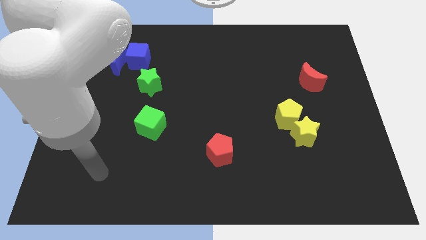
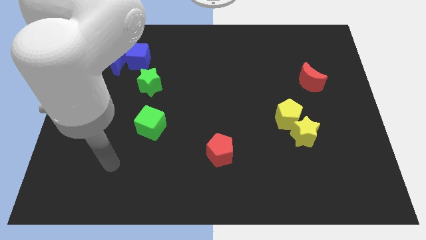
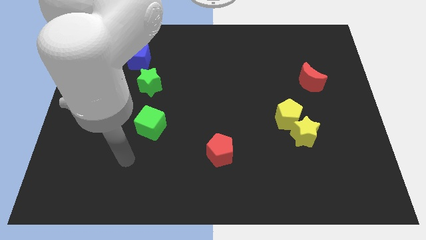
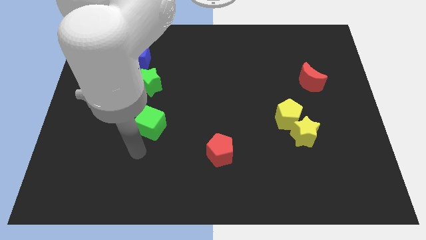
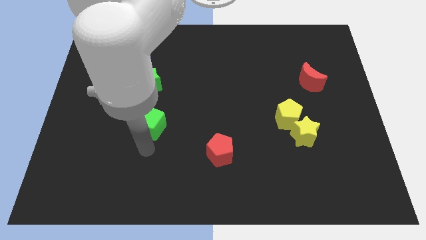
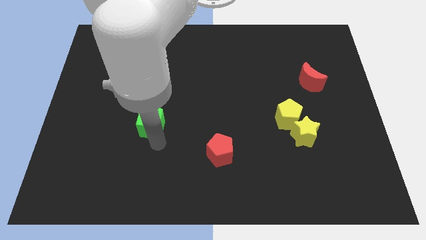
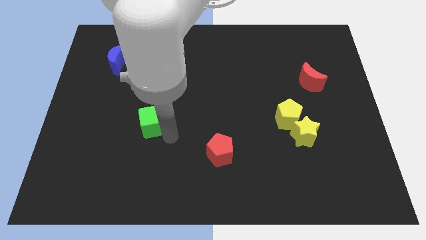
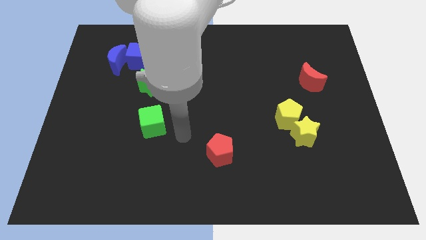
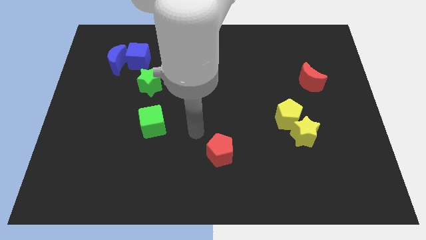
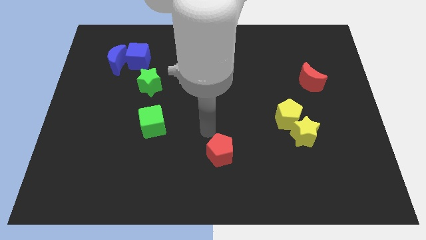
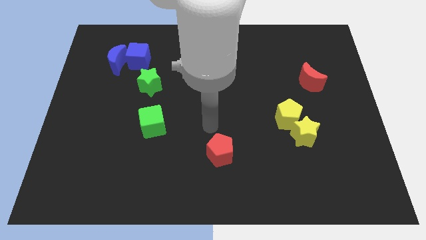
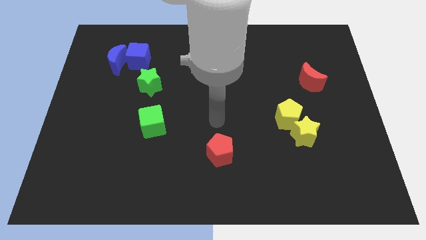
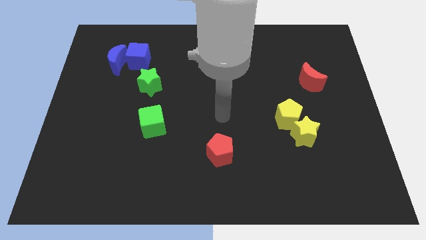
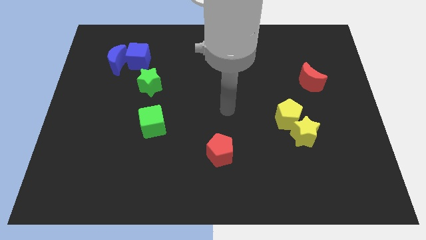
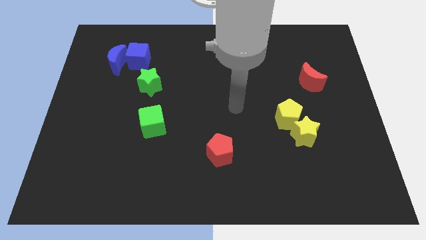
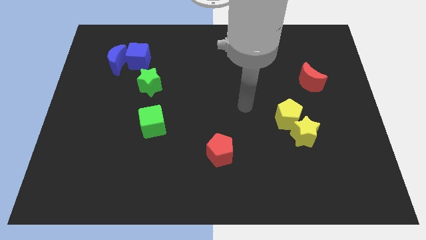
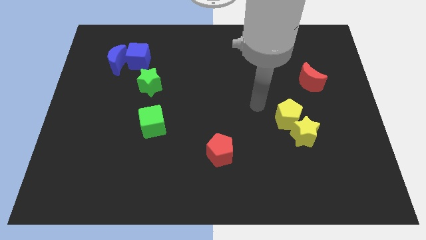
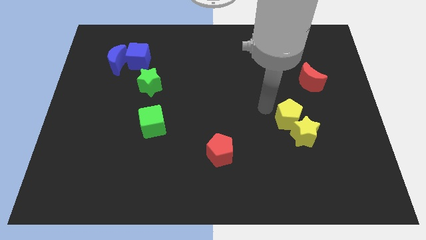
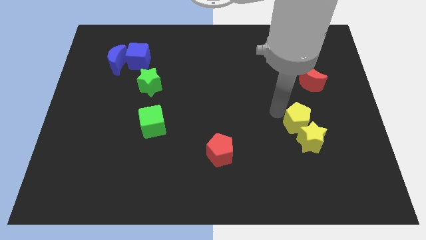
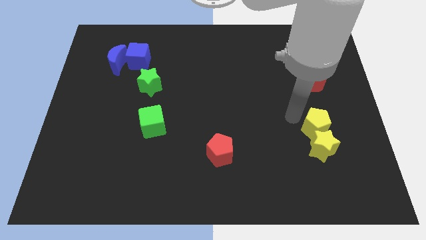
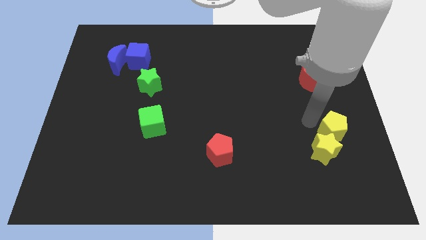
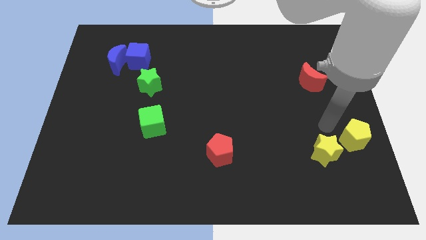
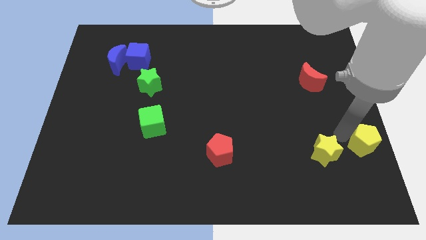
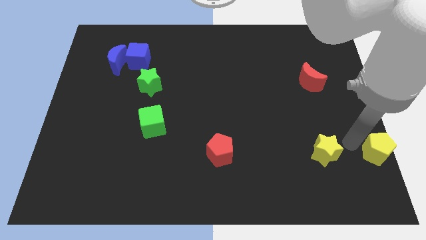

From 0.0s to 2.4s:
pull the yellow star apart from the yellow pentagon

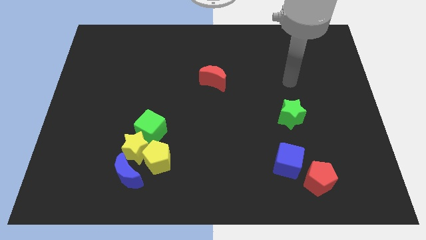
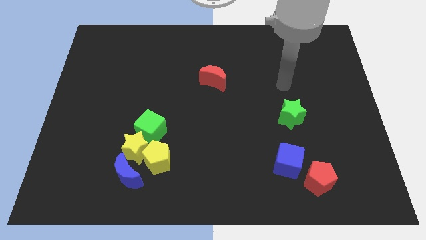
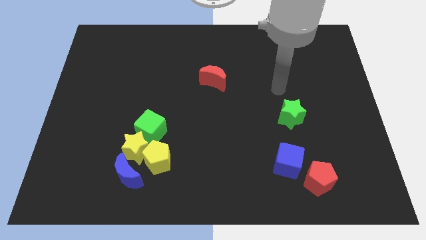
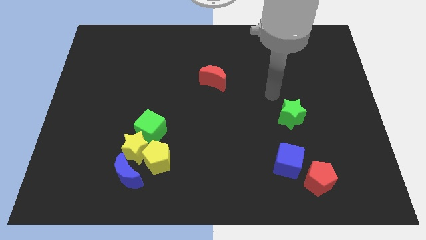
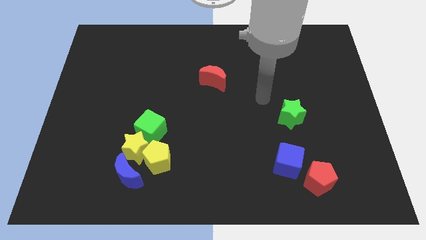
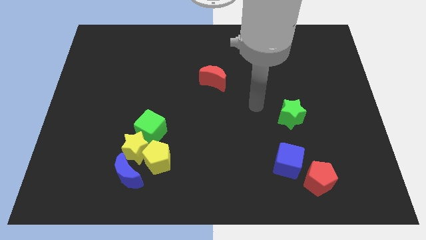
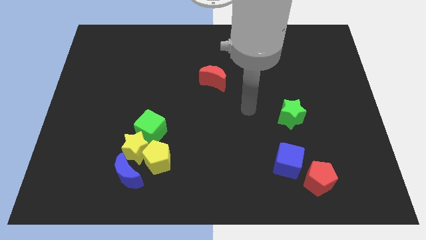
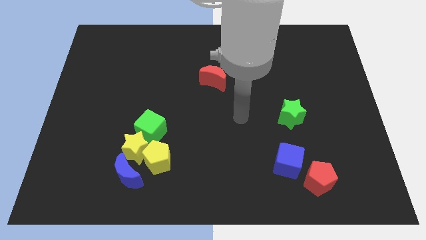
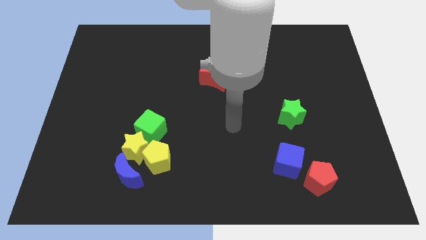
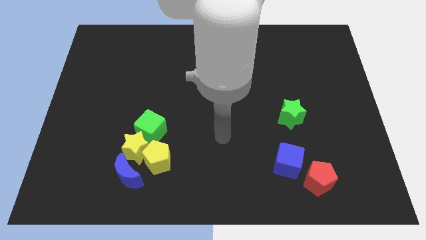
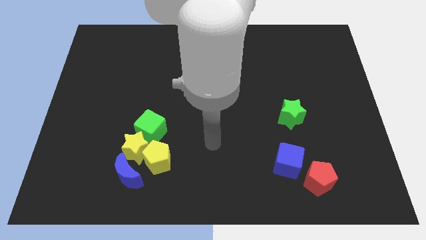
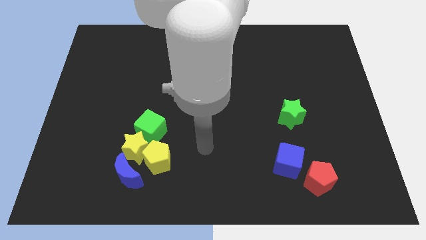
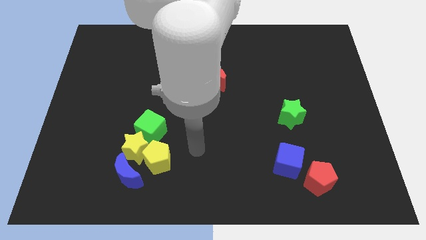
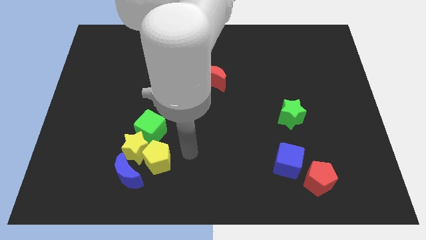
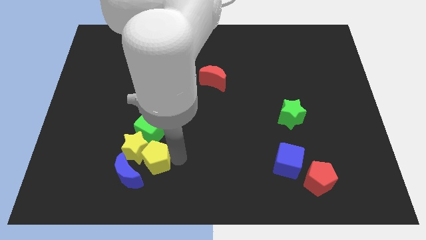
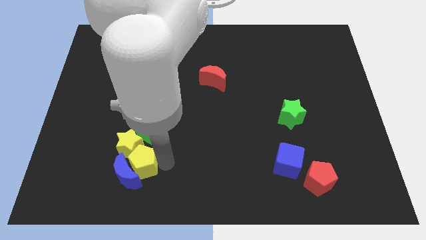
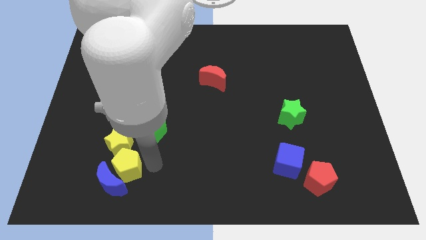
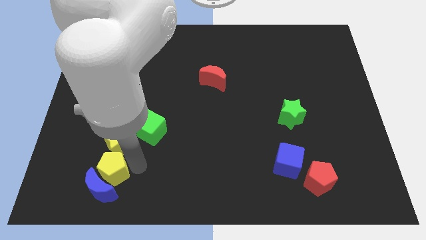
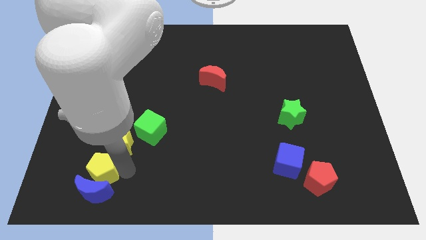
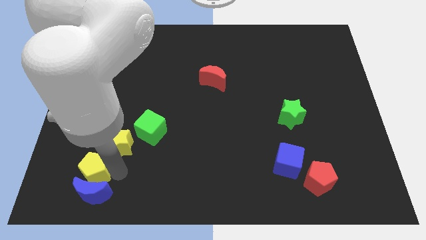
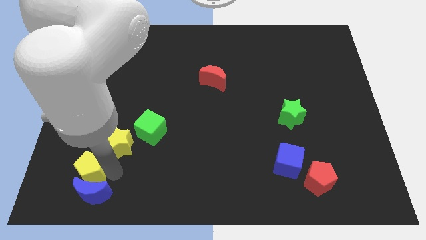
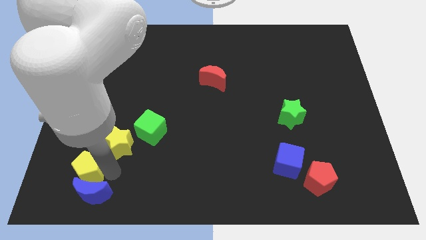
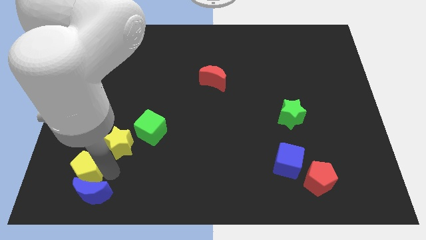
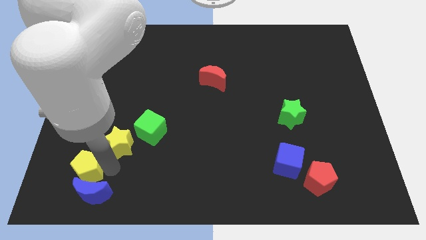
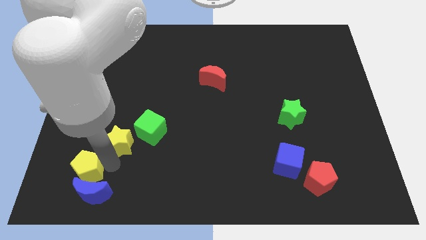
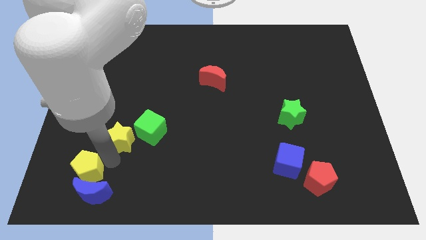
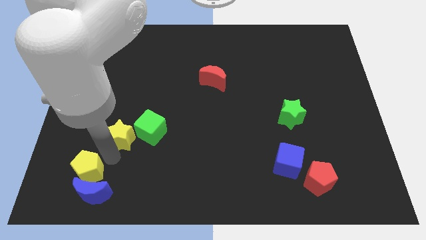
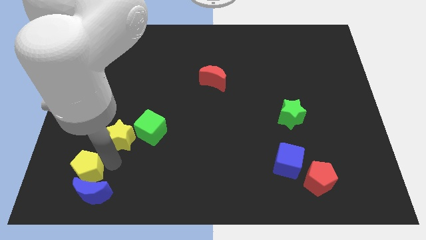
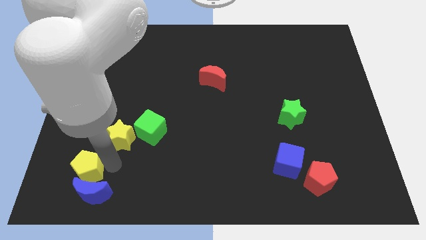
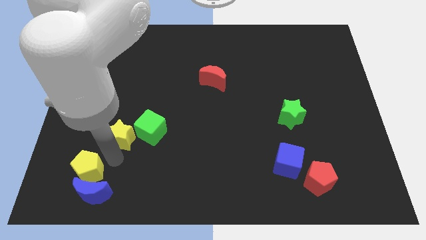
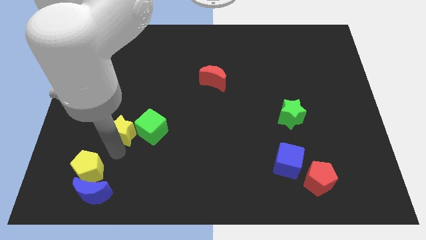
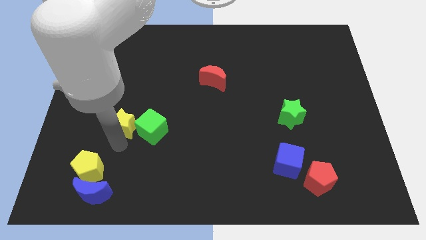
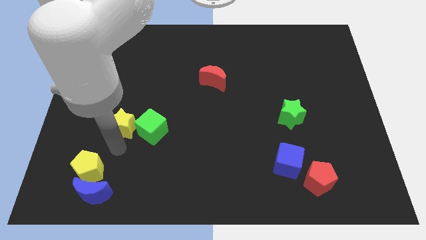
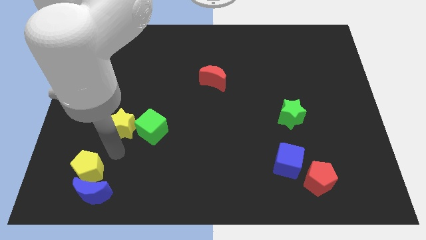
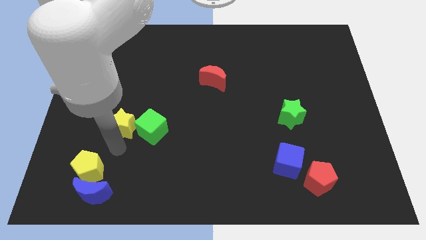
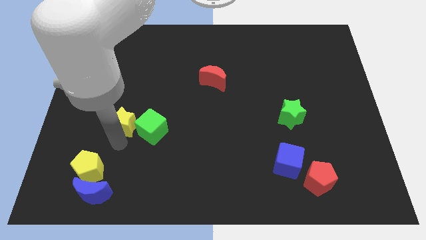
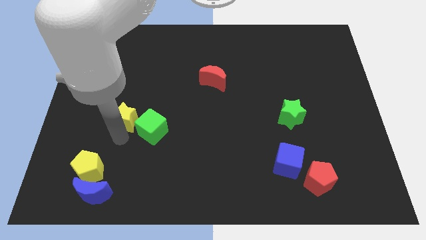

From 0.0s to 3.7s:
separate the yellow star from the yellow pentagon, blue moon, and green cube

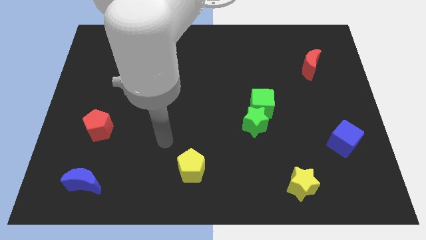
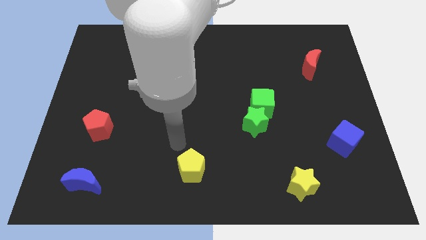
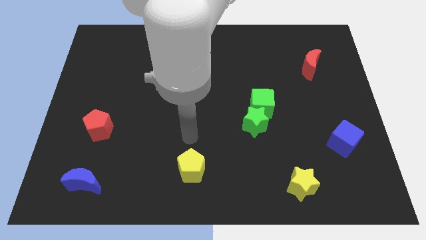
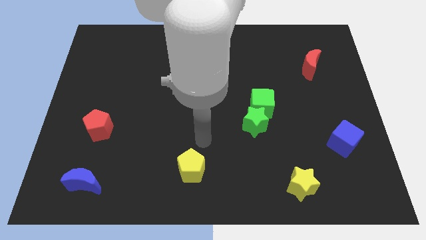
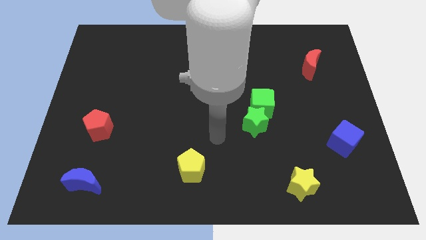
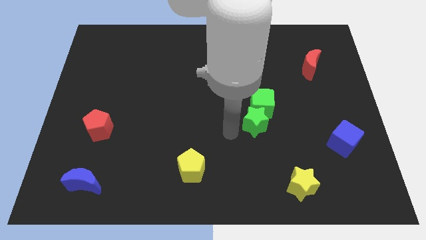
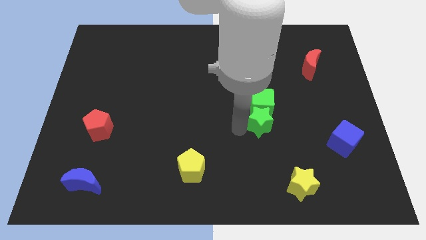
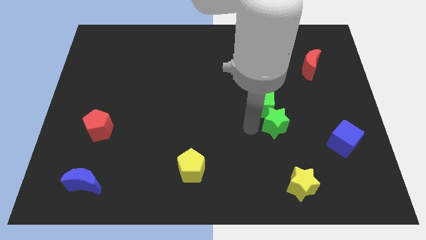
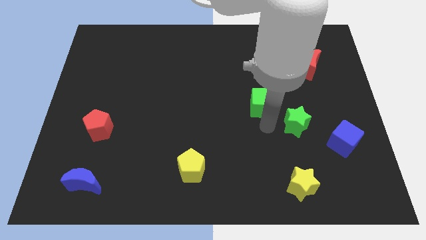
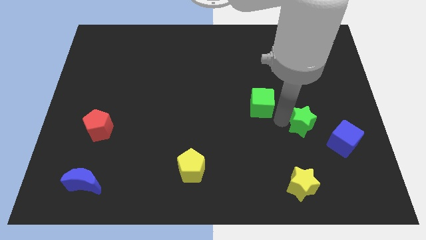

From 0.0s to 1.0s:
pull the green cube apart from the green star

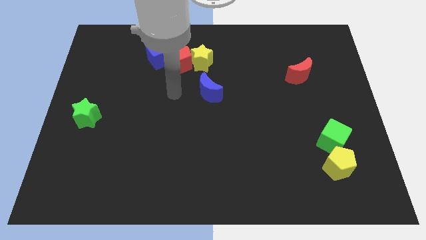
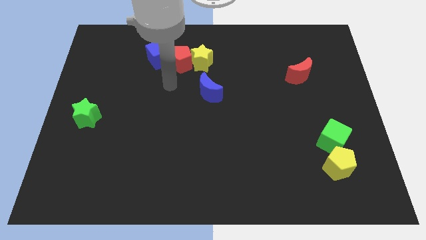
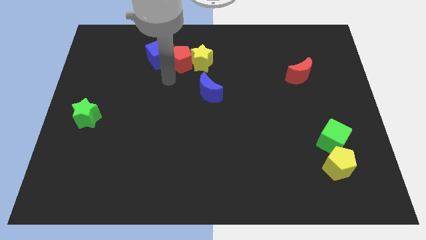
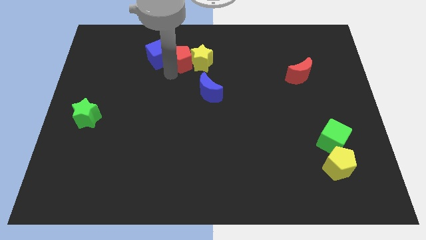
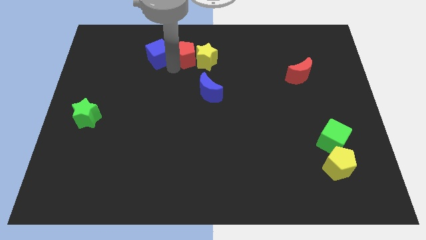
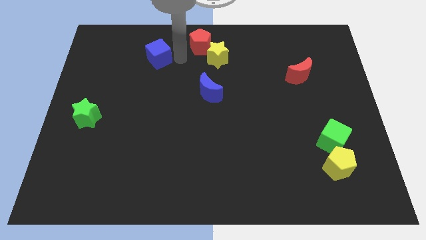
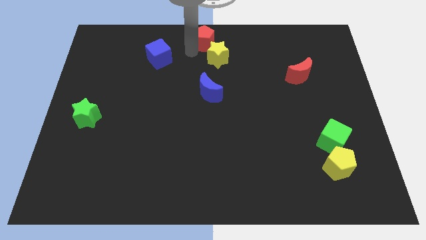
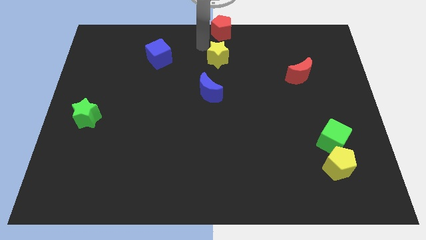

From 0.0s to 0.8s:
separate the yellow star from the red pentagon

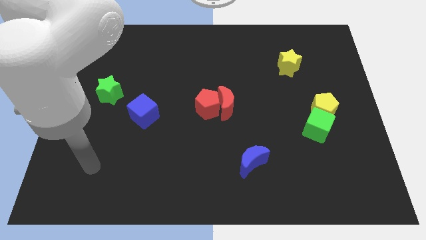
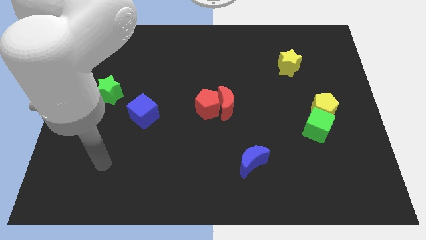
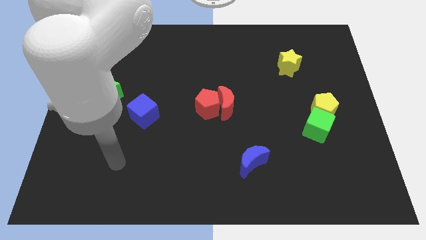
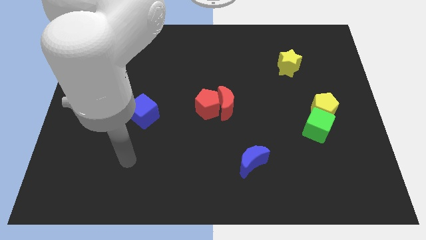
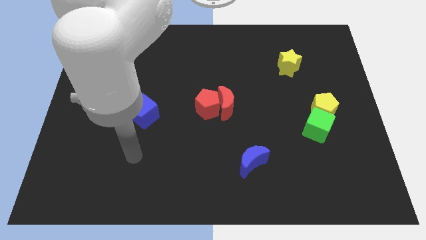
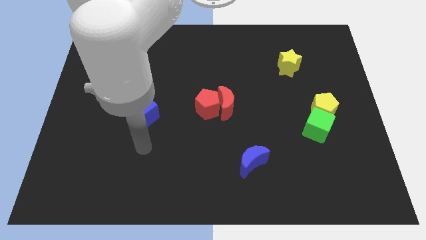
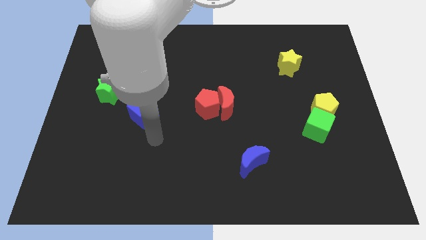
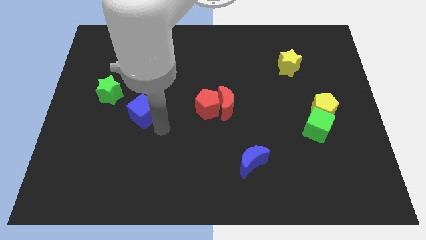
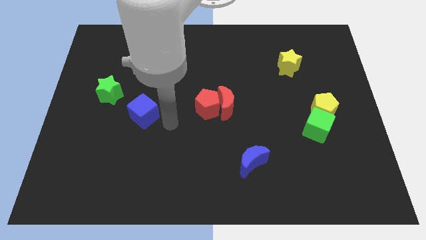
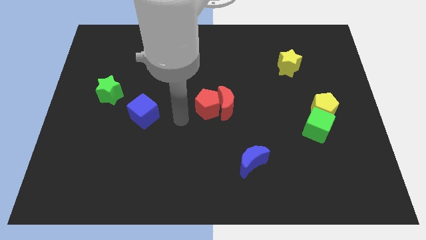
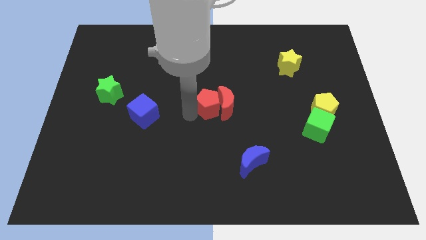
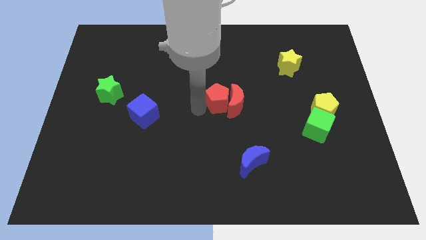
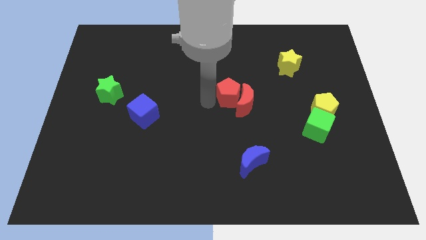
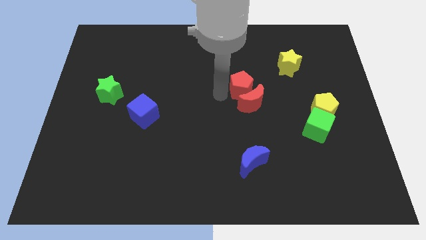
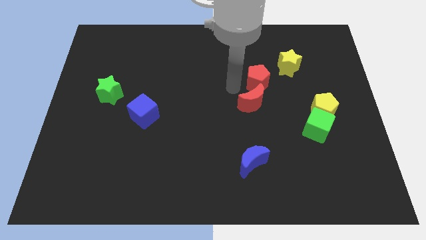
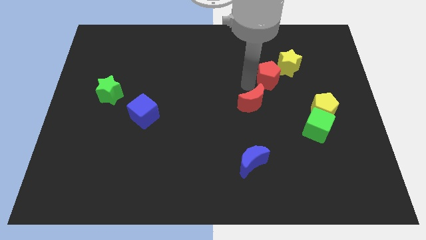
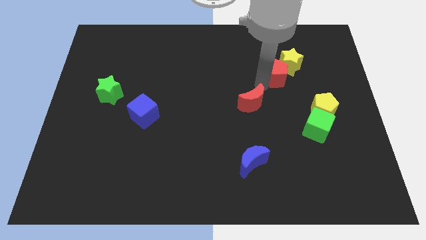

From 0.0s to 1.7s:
separate the red moon from the red pentagon
